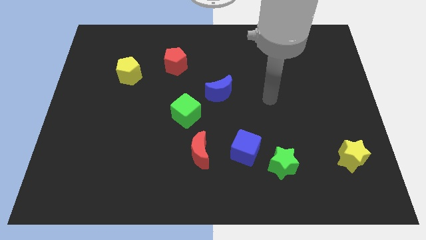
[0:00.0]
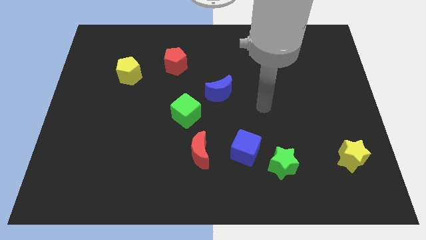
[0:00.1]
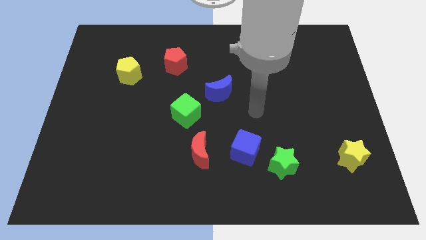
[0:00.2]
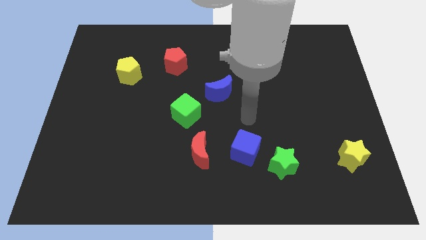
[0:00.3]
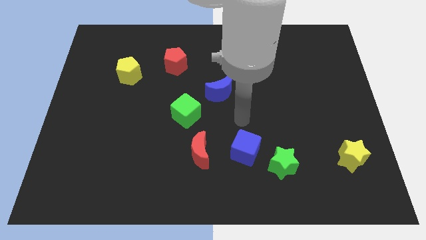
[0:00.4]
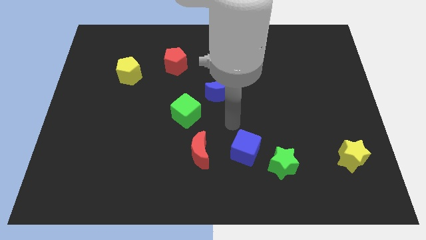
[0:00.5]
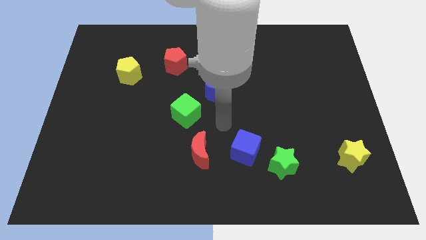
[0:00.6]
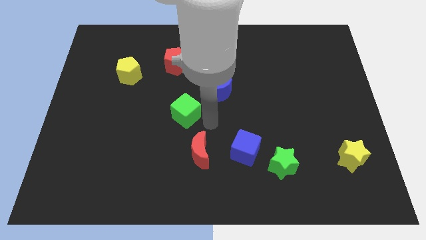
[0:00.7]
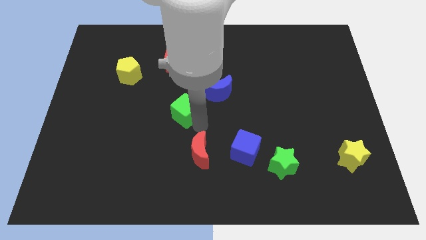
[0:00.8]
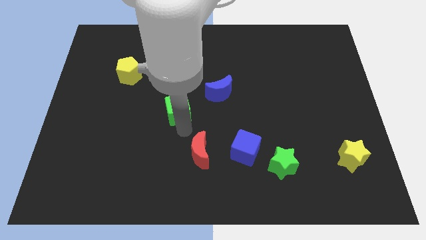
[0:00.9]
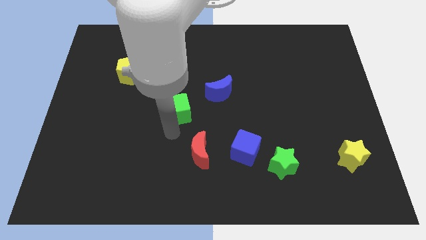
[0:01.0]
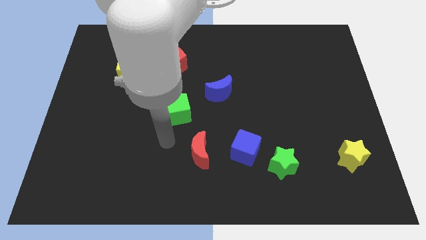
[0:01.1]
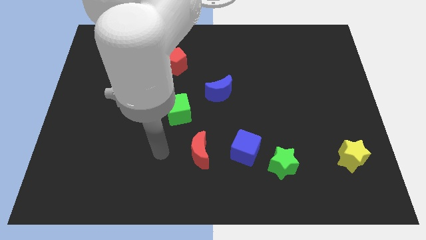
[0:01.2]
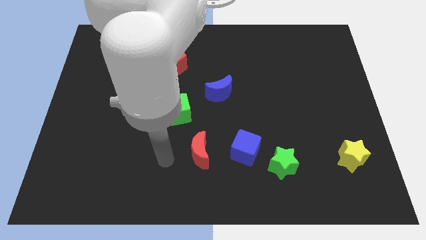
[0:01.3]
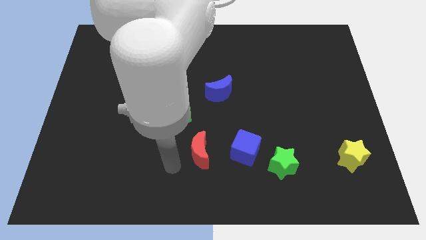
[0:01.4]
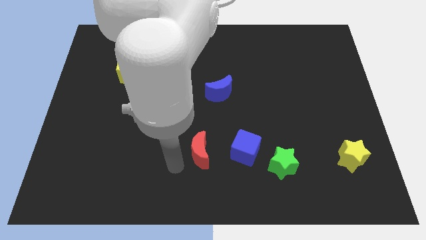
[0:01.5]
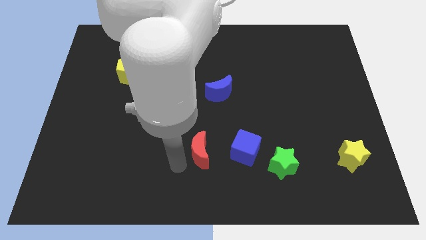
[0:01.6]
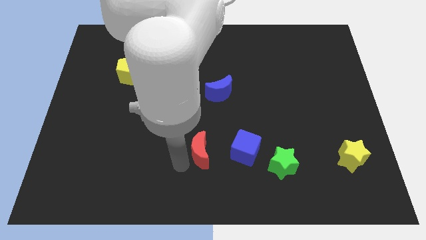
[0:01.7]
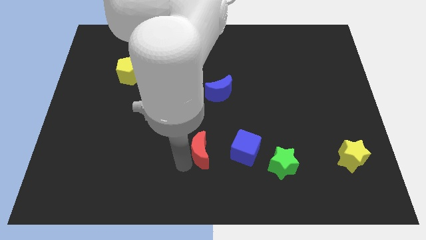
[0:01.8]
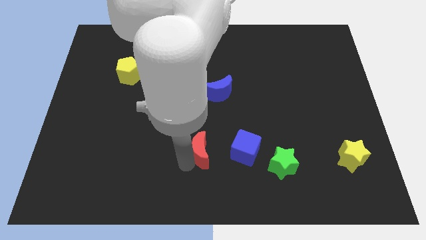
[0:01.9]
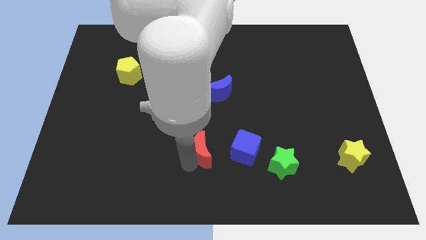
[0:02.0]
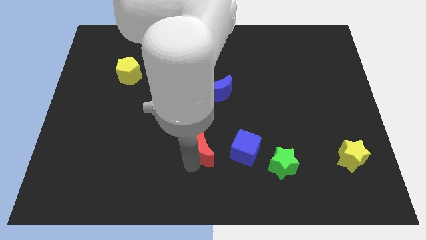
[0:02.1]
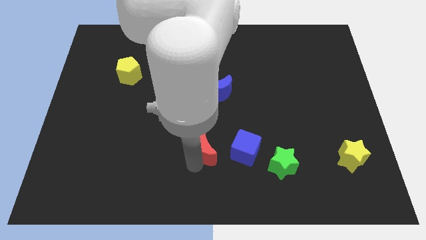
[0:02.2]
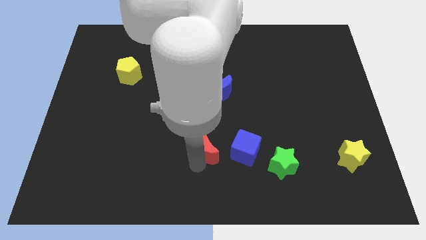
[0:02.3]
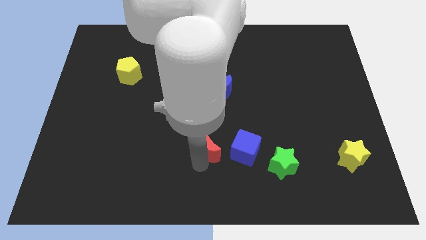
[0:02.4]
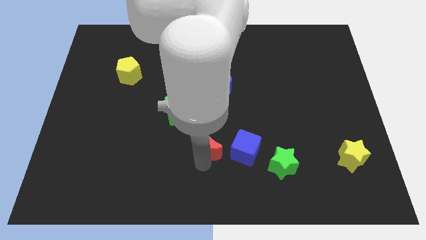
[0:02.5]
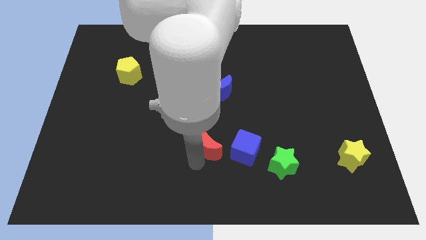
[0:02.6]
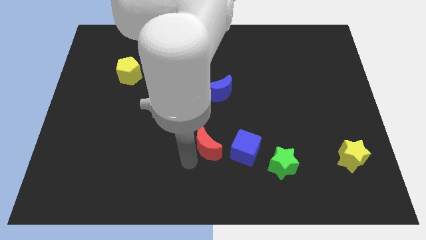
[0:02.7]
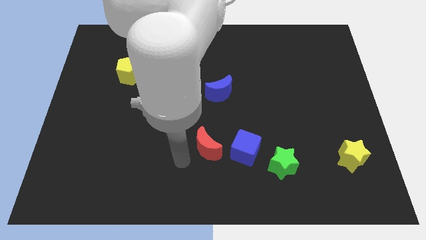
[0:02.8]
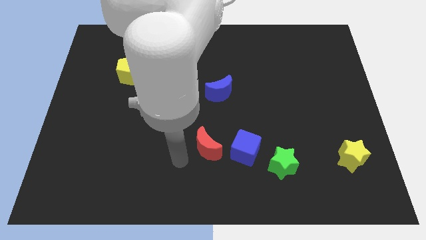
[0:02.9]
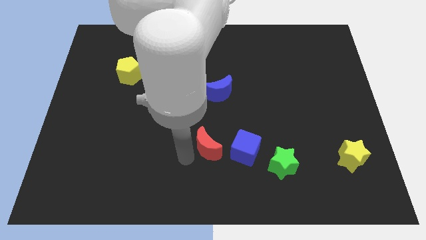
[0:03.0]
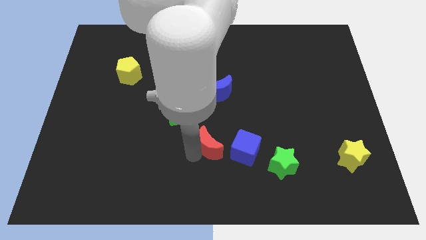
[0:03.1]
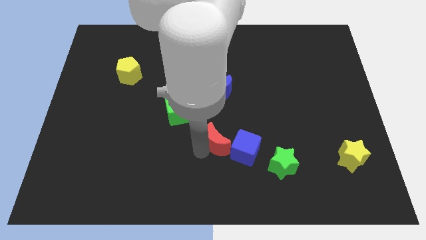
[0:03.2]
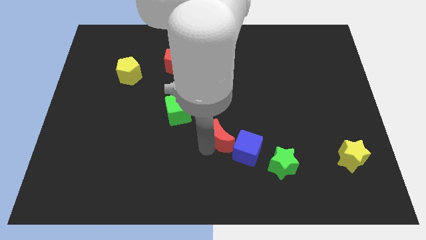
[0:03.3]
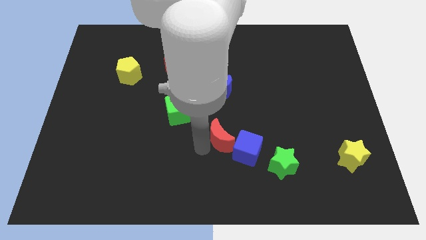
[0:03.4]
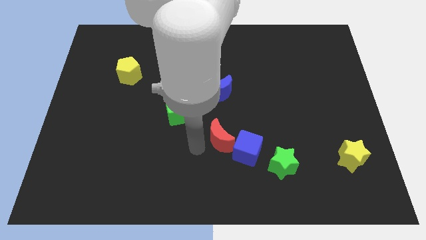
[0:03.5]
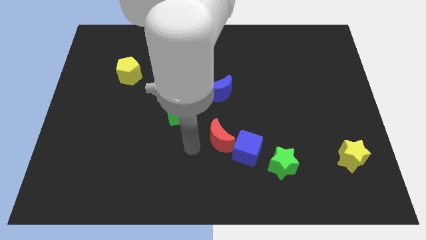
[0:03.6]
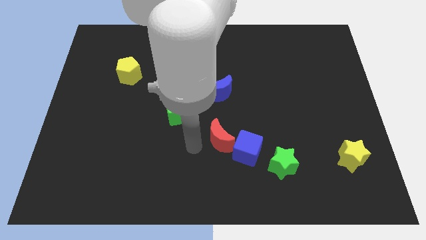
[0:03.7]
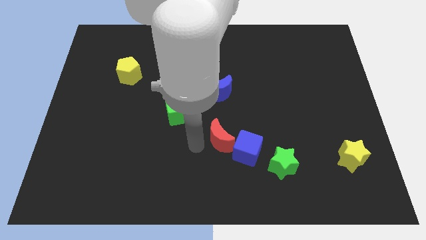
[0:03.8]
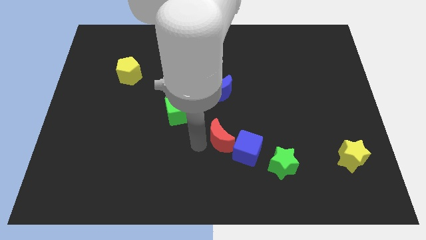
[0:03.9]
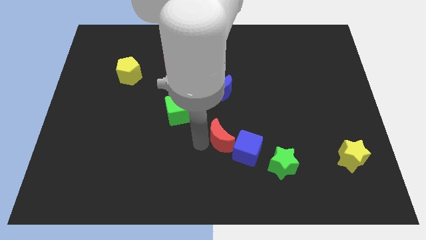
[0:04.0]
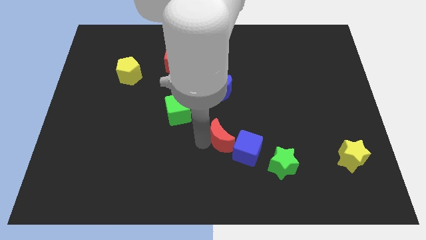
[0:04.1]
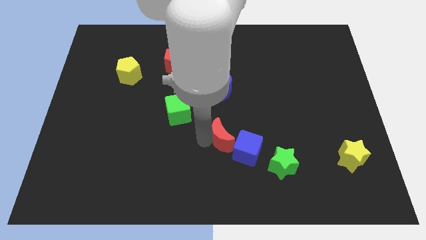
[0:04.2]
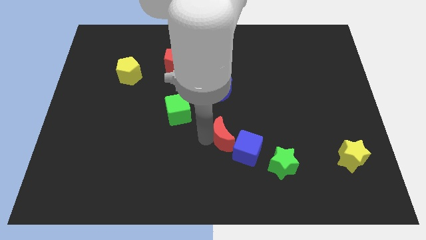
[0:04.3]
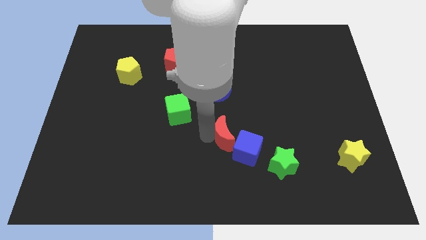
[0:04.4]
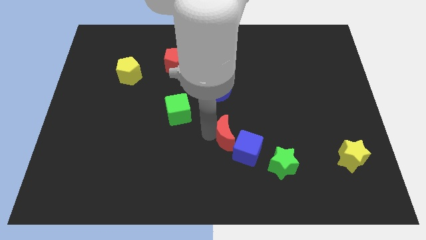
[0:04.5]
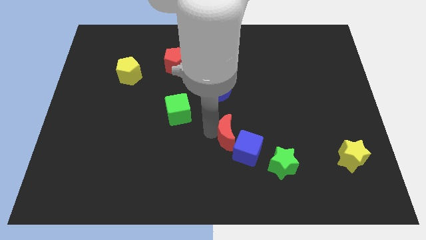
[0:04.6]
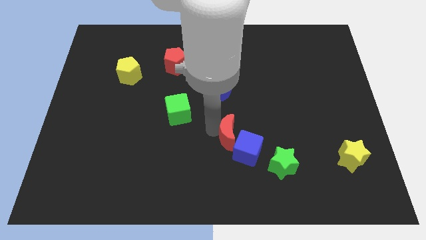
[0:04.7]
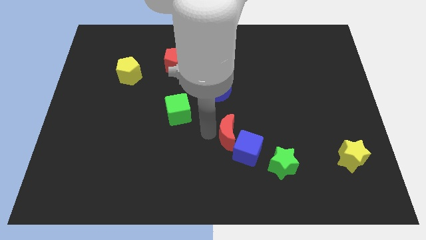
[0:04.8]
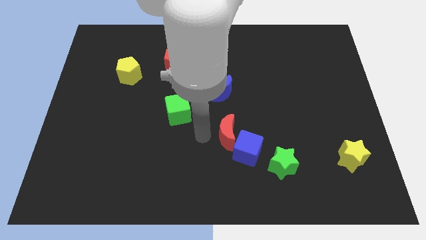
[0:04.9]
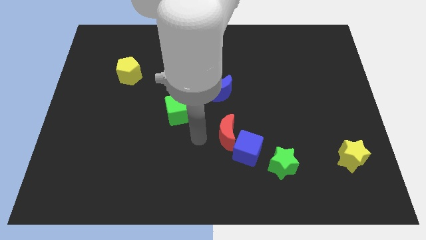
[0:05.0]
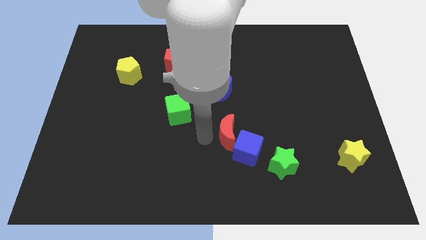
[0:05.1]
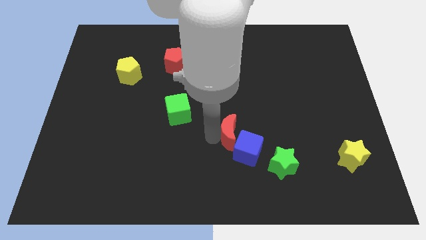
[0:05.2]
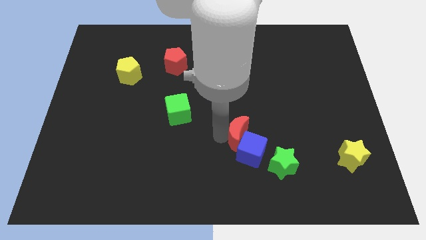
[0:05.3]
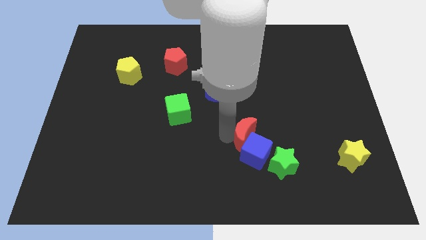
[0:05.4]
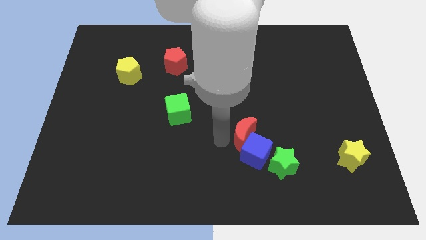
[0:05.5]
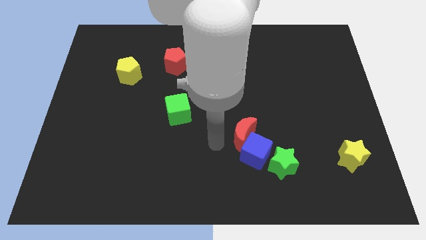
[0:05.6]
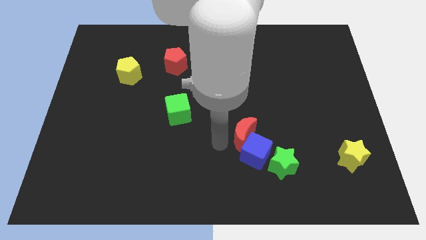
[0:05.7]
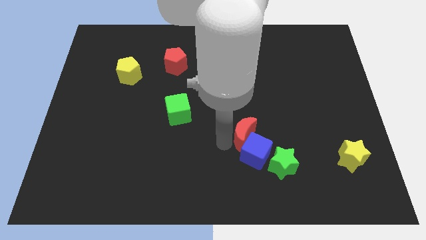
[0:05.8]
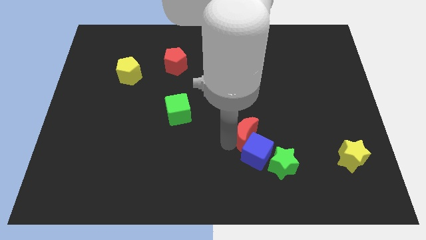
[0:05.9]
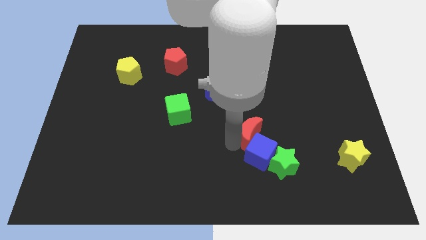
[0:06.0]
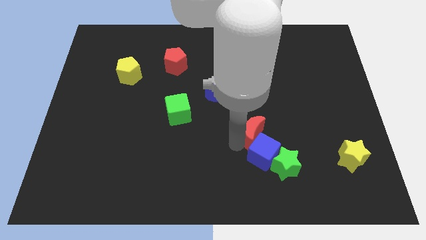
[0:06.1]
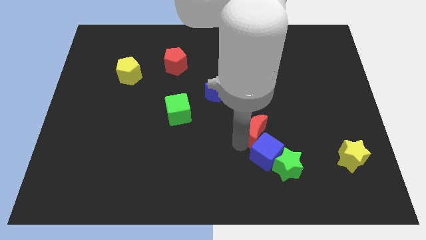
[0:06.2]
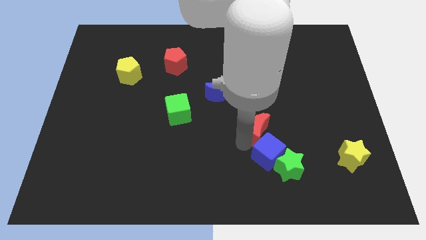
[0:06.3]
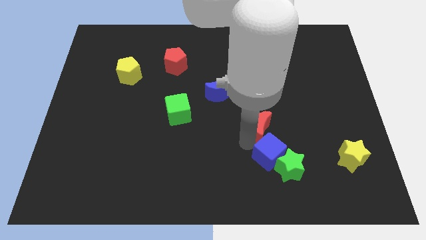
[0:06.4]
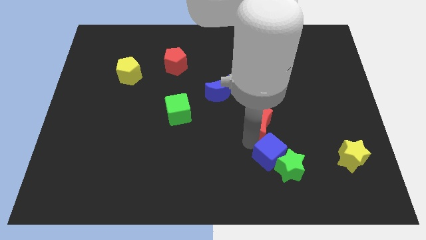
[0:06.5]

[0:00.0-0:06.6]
put the red moon above the green star
